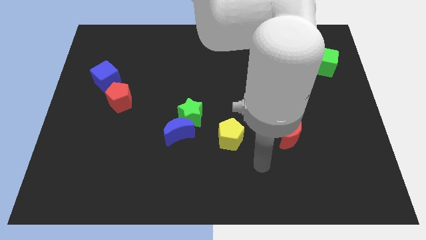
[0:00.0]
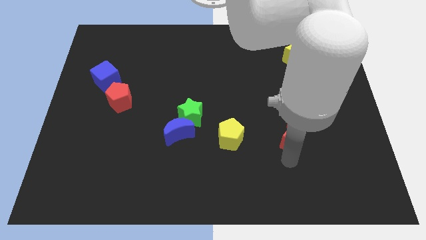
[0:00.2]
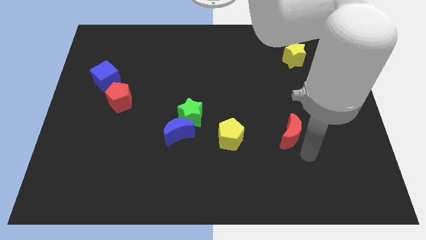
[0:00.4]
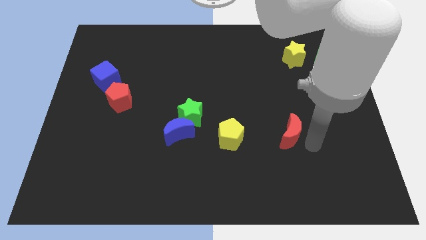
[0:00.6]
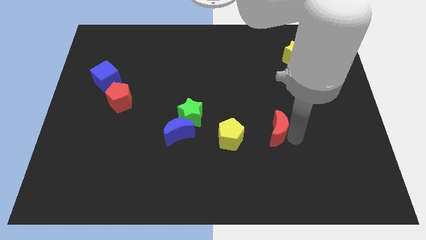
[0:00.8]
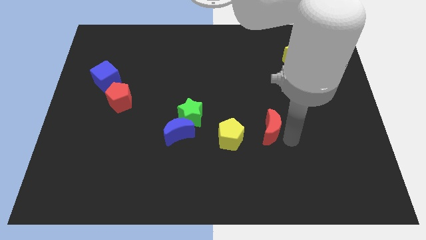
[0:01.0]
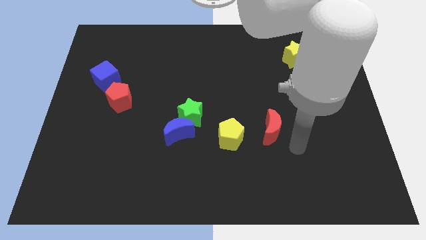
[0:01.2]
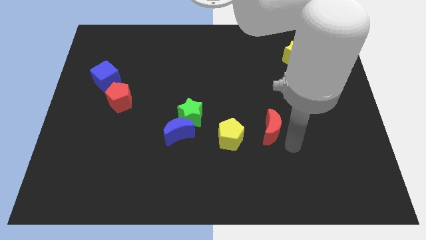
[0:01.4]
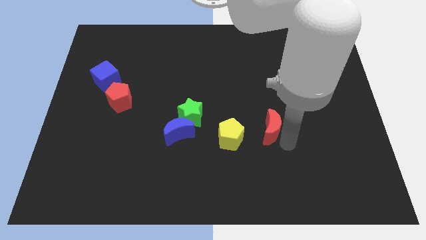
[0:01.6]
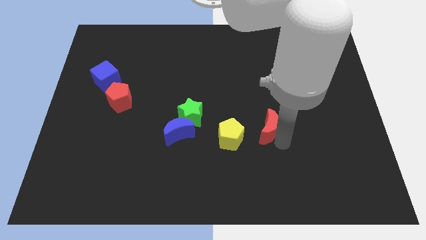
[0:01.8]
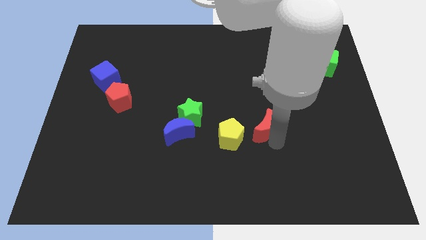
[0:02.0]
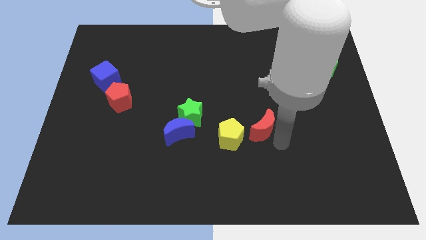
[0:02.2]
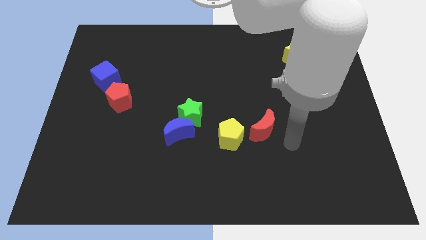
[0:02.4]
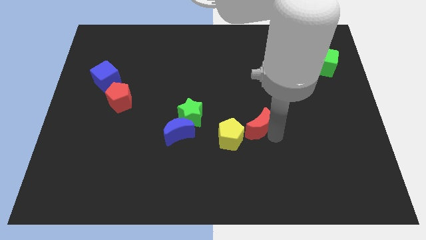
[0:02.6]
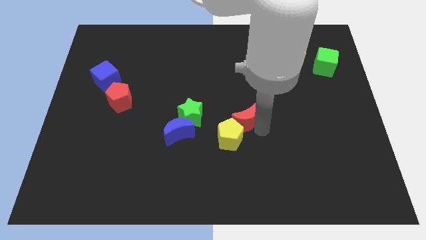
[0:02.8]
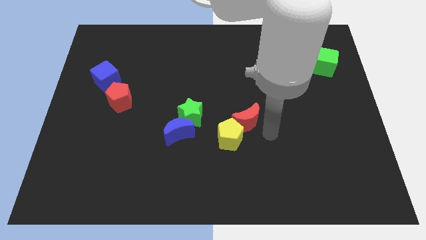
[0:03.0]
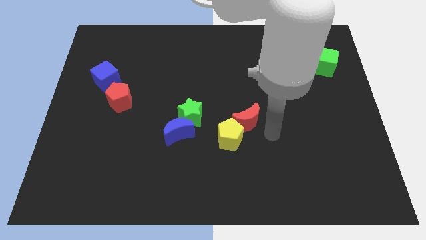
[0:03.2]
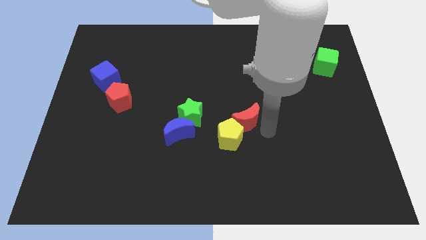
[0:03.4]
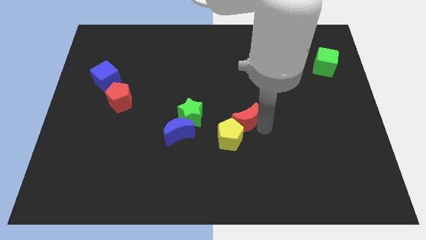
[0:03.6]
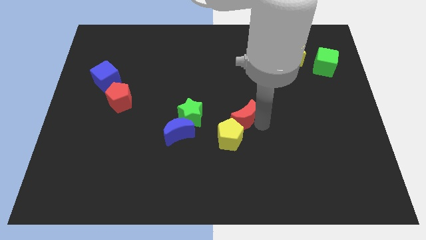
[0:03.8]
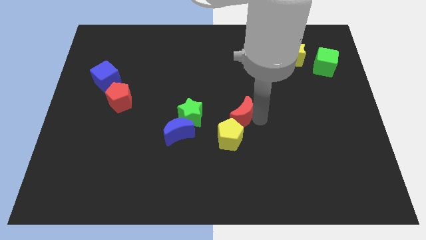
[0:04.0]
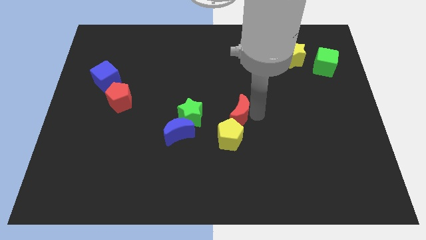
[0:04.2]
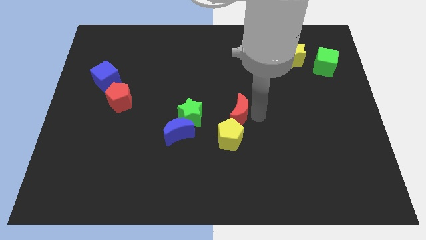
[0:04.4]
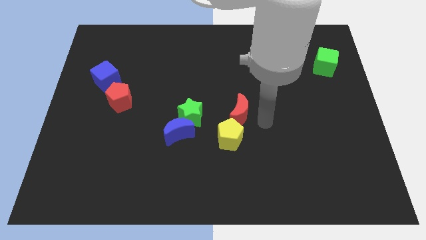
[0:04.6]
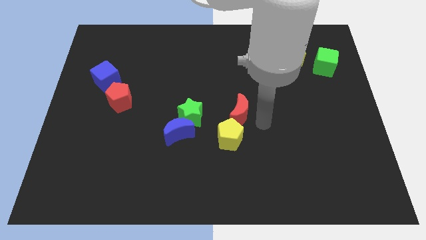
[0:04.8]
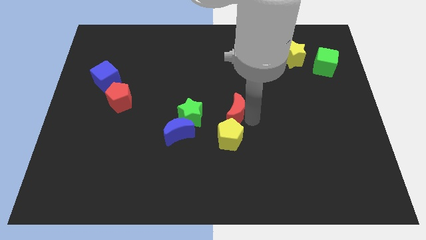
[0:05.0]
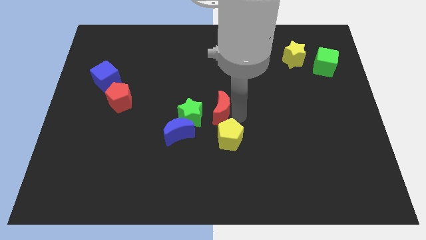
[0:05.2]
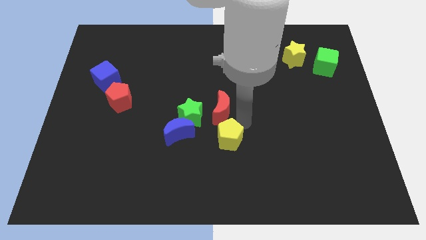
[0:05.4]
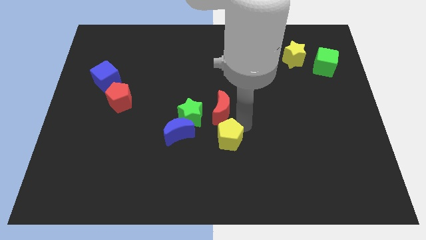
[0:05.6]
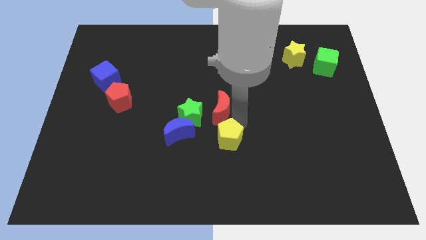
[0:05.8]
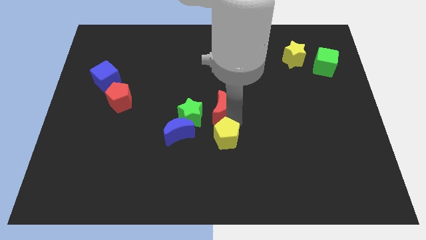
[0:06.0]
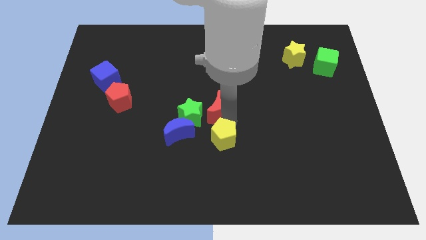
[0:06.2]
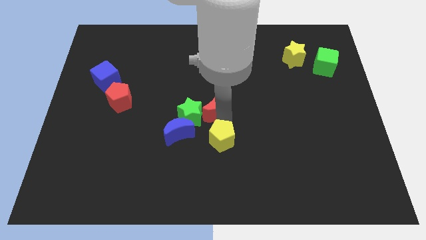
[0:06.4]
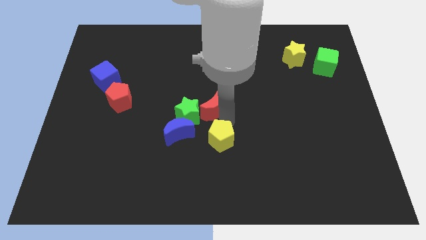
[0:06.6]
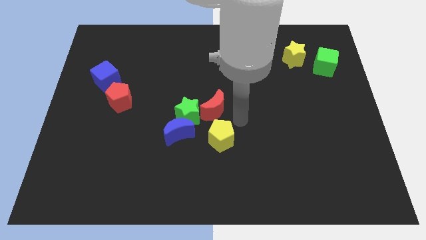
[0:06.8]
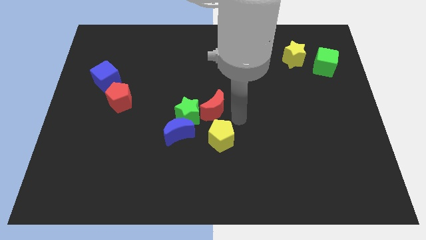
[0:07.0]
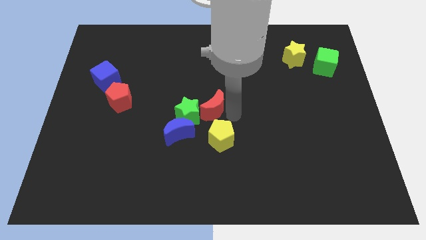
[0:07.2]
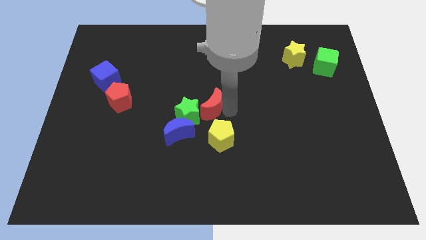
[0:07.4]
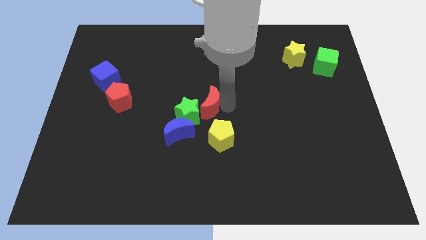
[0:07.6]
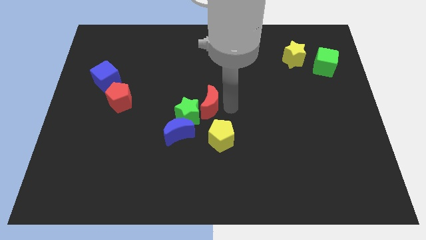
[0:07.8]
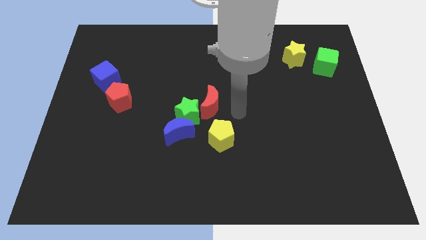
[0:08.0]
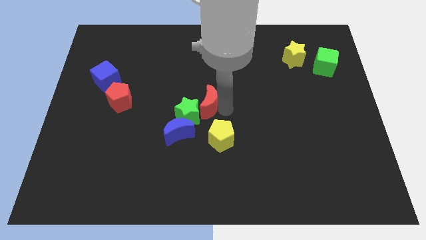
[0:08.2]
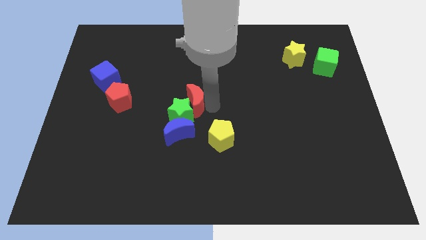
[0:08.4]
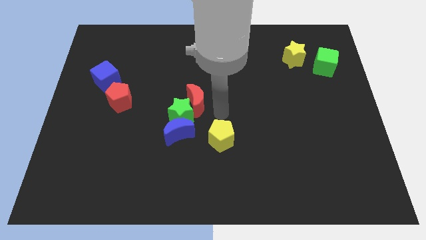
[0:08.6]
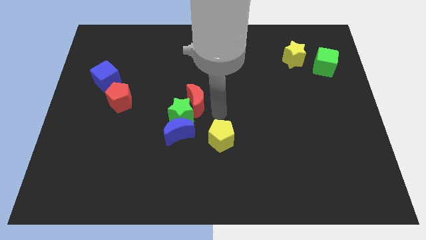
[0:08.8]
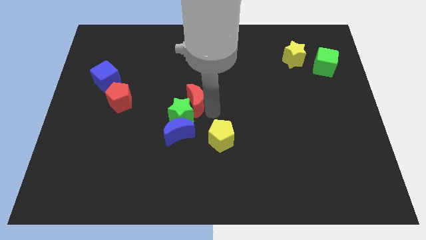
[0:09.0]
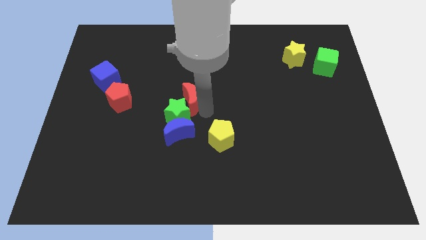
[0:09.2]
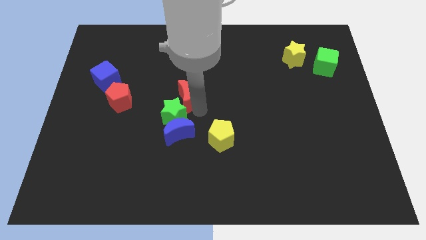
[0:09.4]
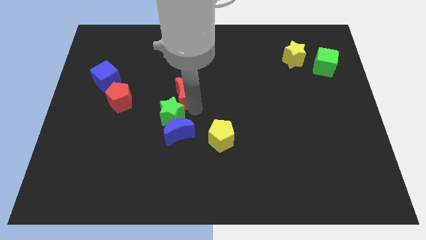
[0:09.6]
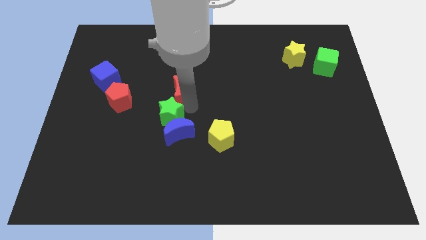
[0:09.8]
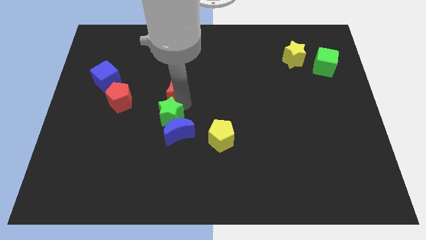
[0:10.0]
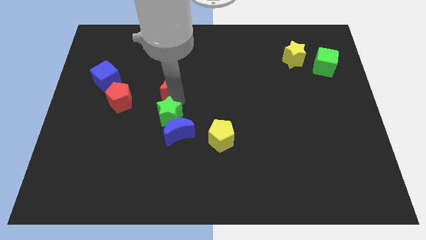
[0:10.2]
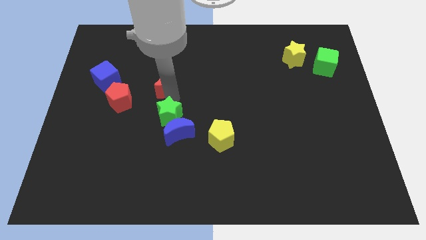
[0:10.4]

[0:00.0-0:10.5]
slide the red moon to the top right side of the red pentagon

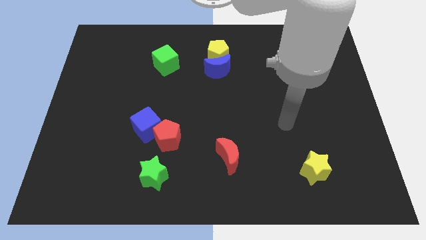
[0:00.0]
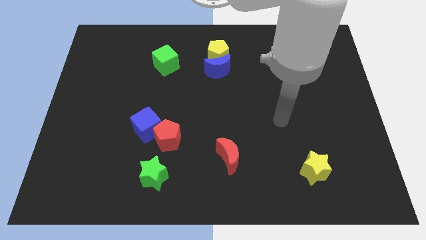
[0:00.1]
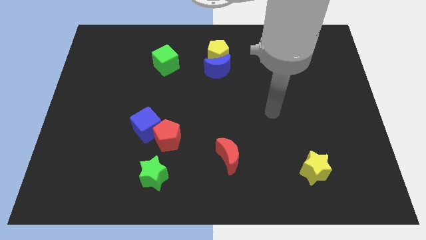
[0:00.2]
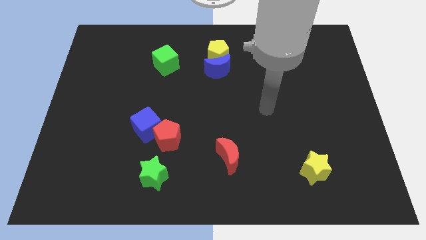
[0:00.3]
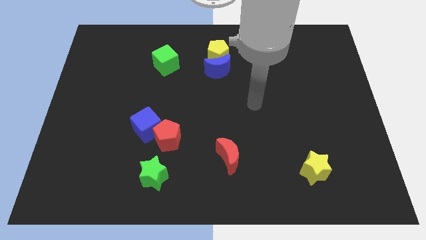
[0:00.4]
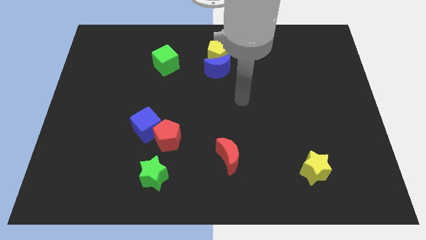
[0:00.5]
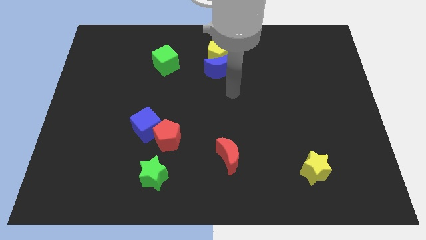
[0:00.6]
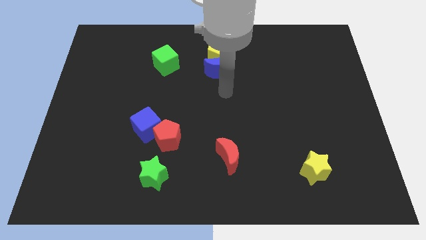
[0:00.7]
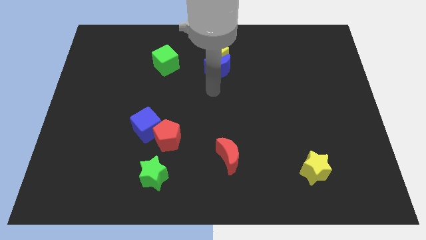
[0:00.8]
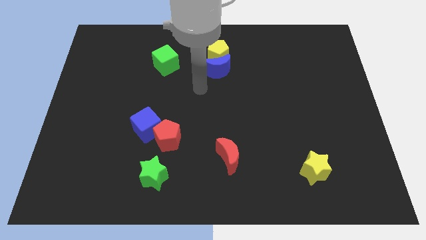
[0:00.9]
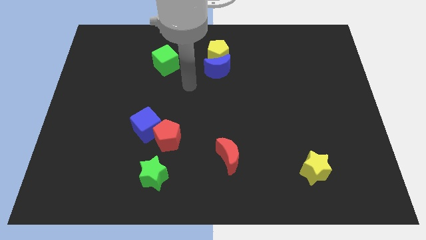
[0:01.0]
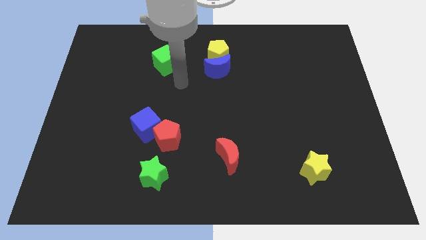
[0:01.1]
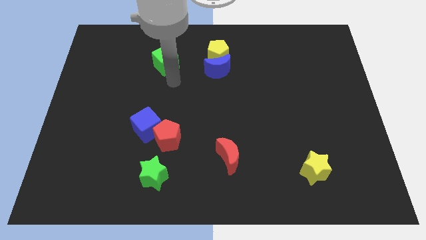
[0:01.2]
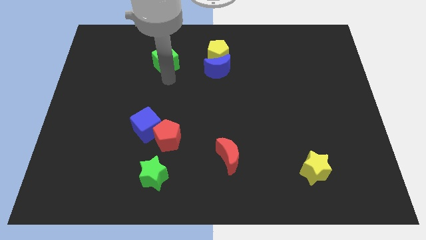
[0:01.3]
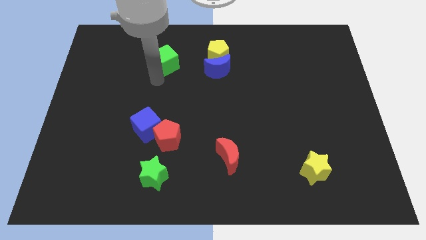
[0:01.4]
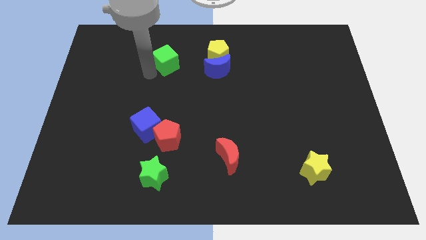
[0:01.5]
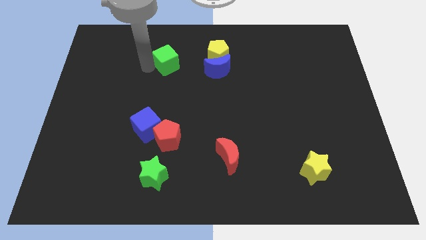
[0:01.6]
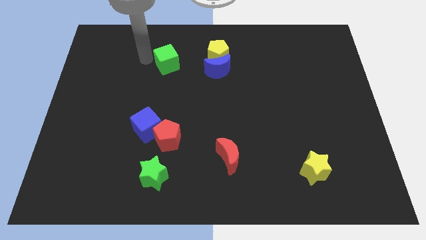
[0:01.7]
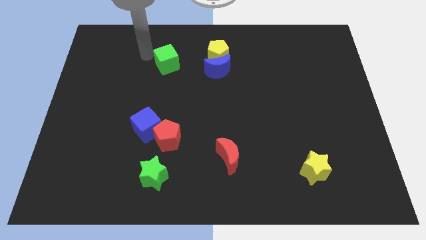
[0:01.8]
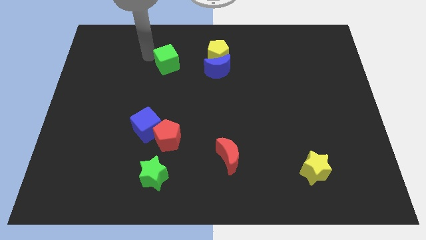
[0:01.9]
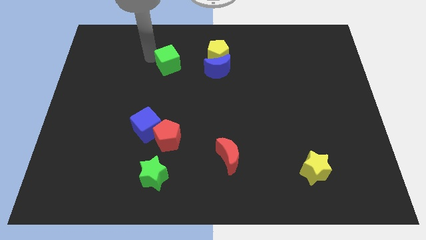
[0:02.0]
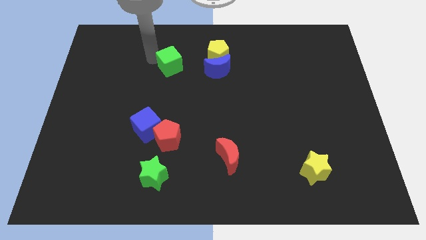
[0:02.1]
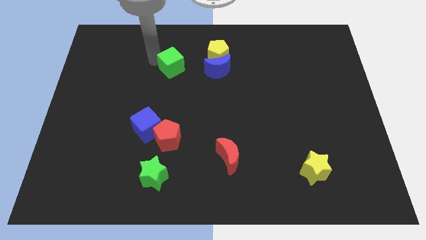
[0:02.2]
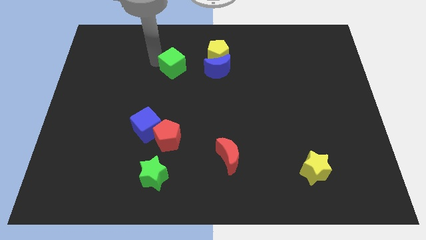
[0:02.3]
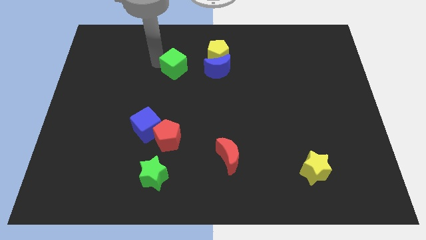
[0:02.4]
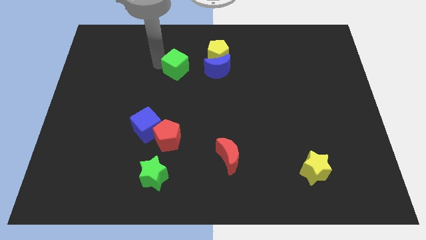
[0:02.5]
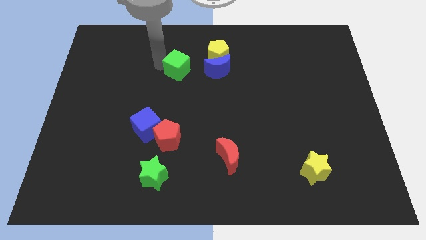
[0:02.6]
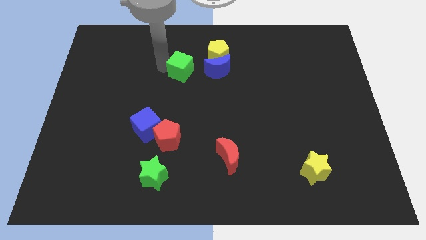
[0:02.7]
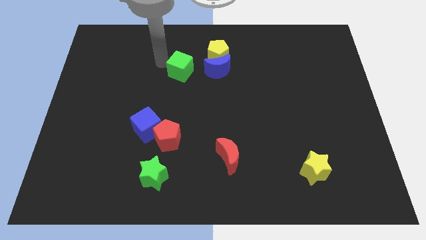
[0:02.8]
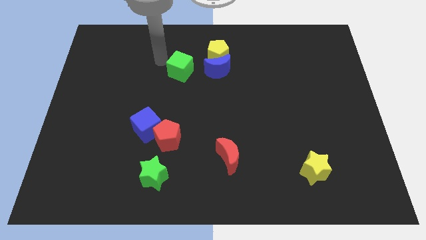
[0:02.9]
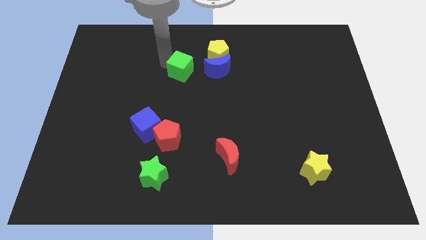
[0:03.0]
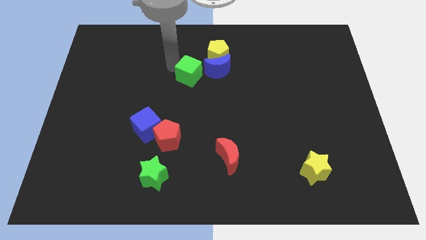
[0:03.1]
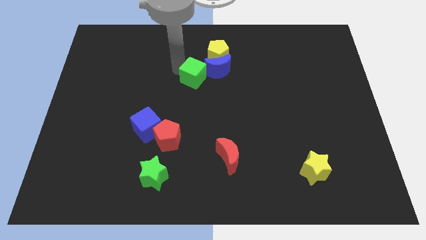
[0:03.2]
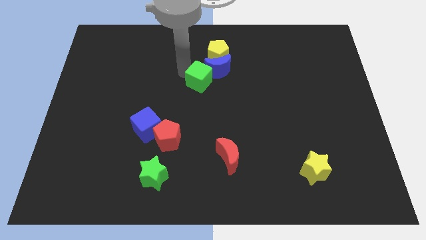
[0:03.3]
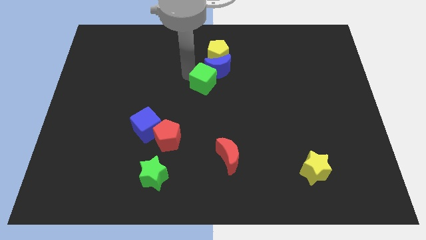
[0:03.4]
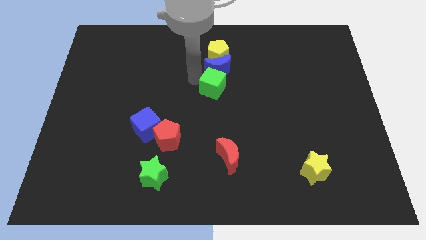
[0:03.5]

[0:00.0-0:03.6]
move the green cube to the bottom right side of the blue moon
